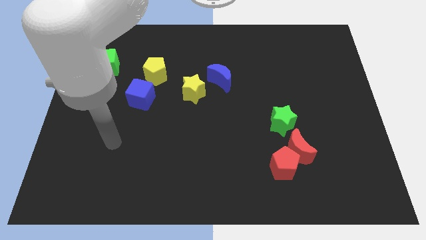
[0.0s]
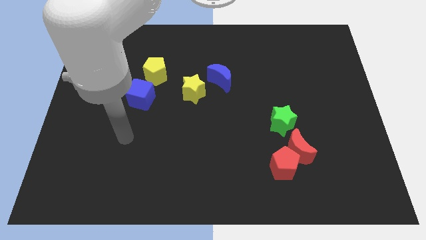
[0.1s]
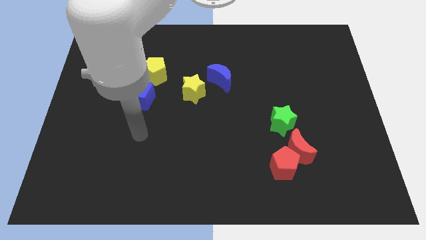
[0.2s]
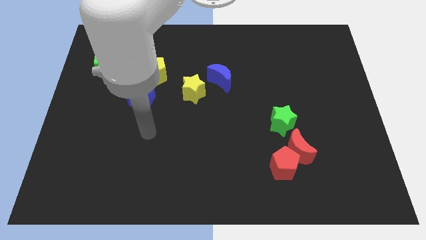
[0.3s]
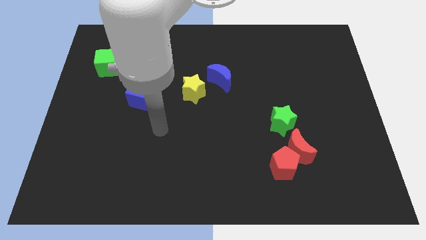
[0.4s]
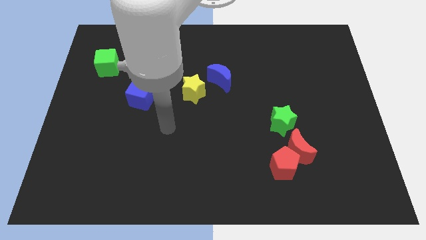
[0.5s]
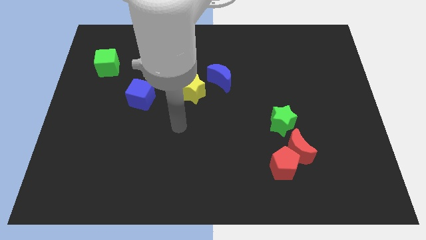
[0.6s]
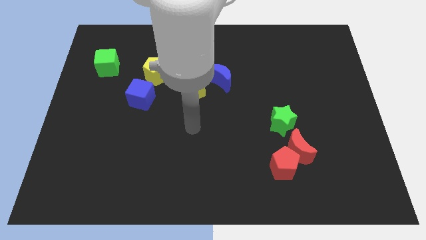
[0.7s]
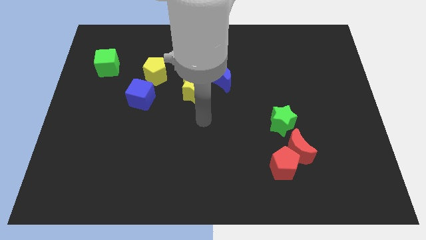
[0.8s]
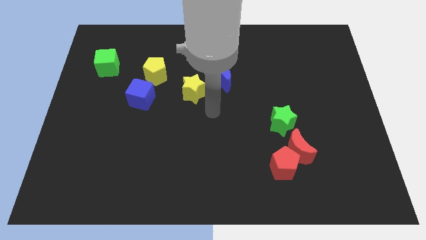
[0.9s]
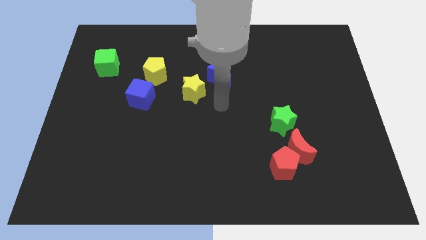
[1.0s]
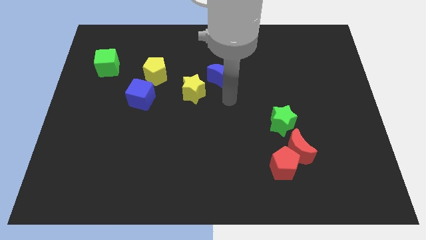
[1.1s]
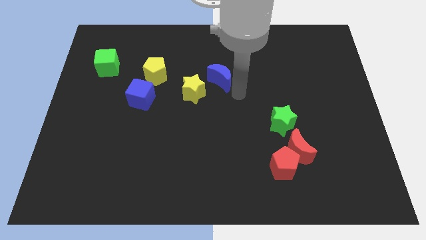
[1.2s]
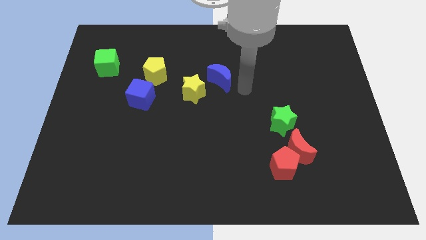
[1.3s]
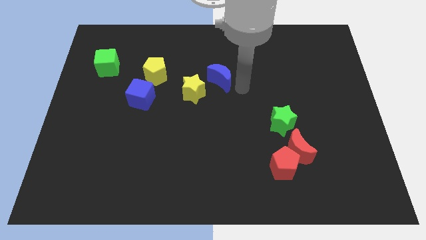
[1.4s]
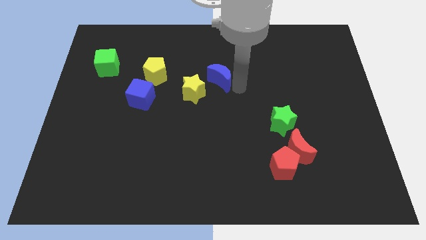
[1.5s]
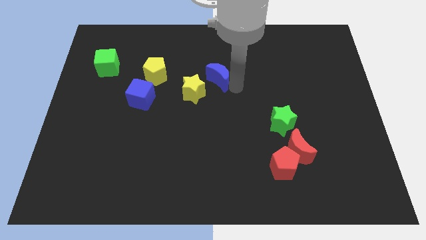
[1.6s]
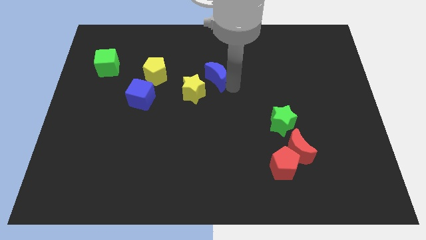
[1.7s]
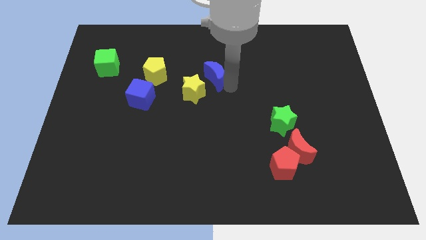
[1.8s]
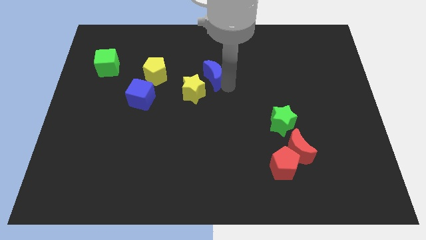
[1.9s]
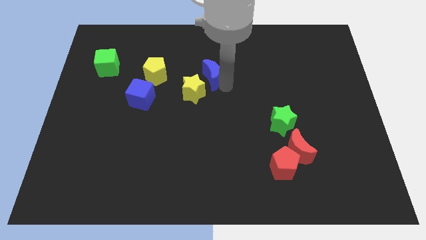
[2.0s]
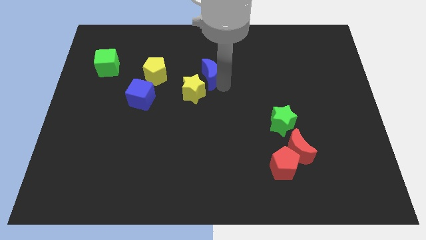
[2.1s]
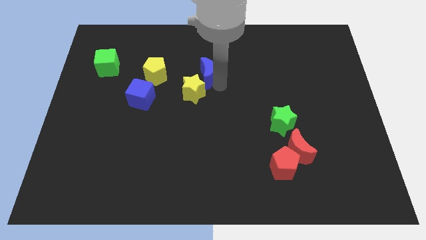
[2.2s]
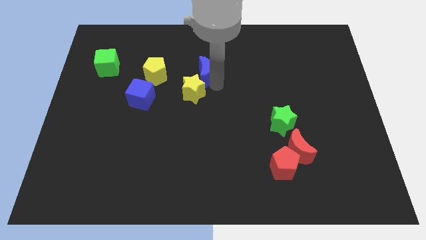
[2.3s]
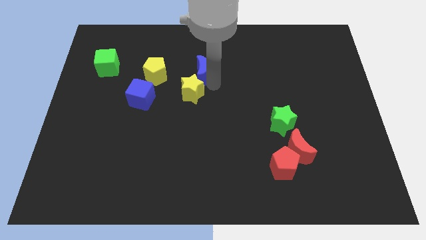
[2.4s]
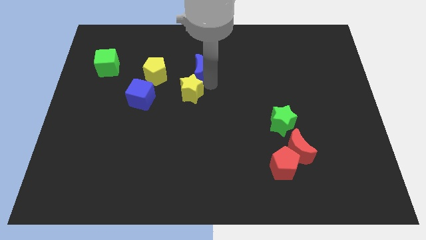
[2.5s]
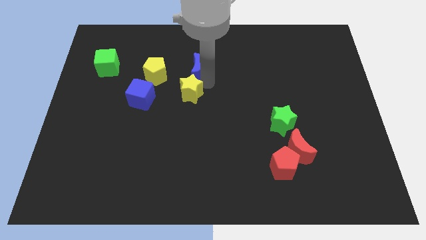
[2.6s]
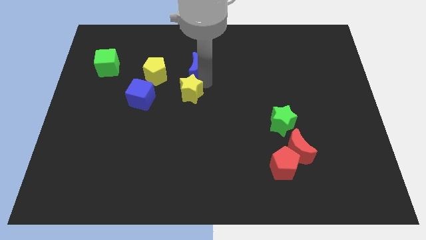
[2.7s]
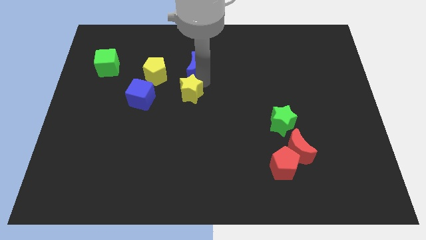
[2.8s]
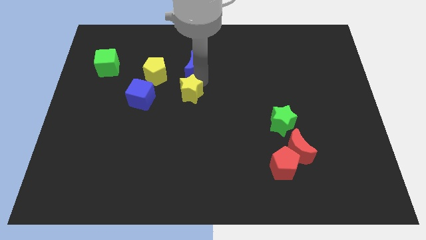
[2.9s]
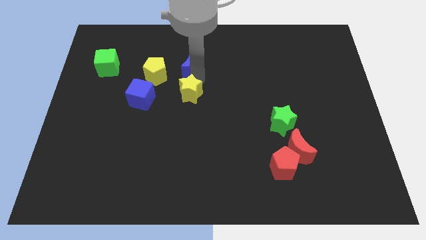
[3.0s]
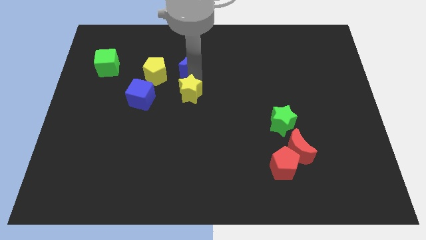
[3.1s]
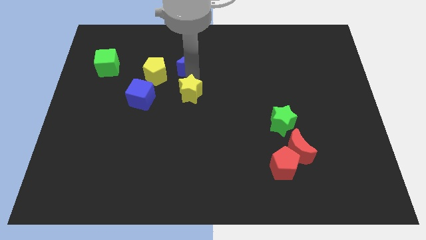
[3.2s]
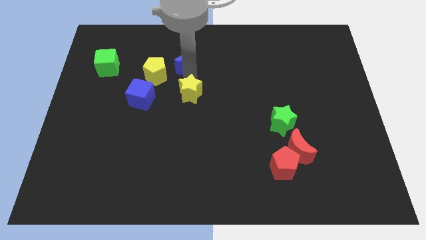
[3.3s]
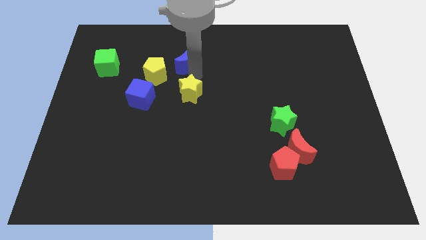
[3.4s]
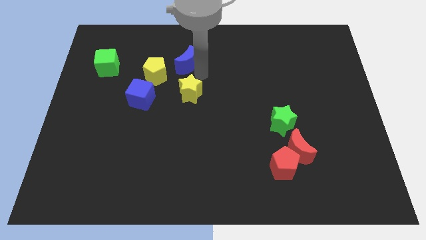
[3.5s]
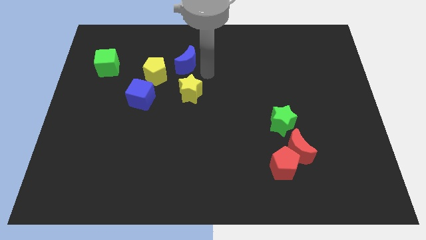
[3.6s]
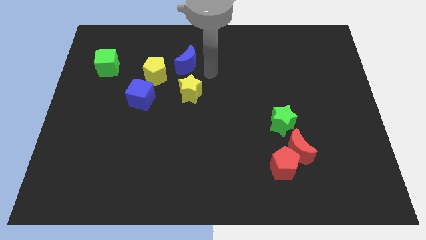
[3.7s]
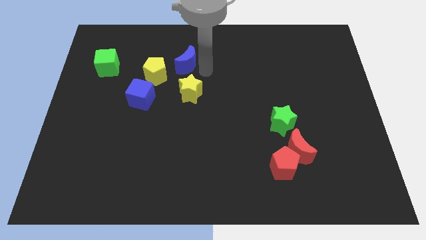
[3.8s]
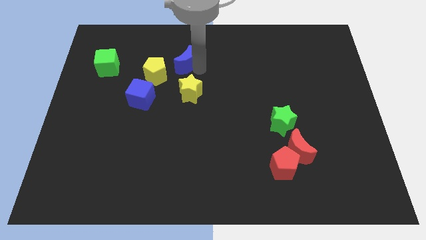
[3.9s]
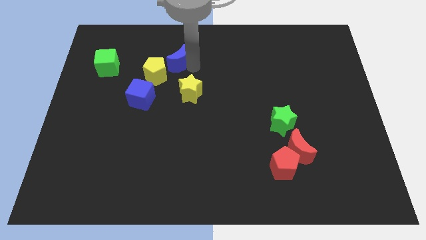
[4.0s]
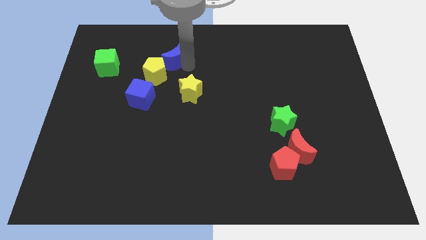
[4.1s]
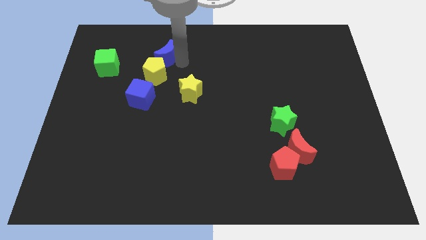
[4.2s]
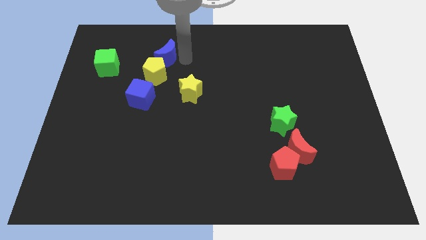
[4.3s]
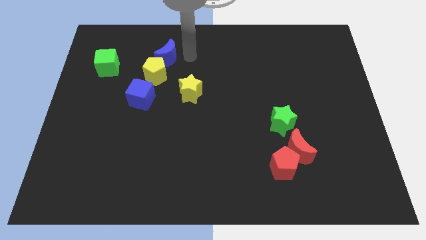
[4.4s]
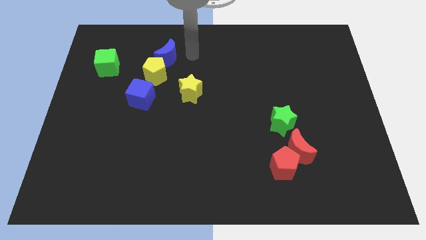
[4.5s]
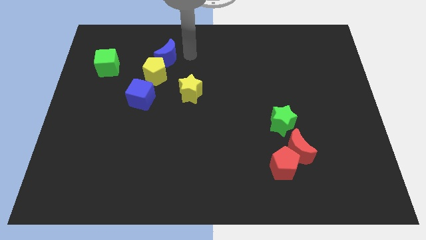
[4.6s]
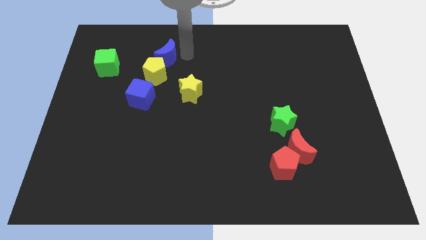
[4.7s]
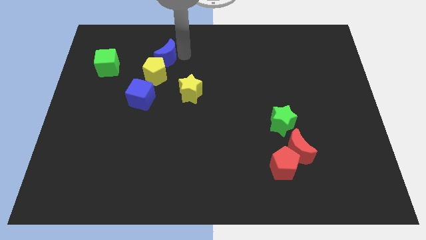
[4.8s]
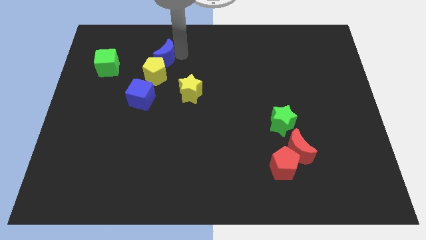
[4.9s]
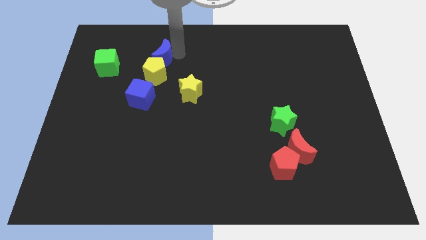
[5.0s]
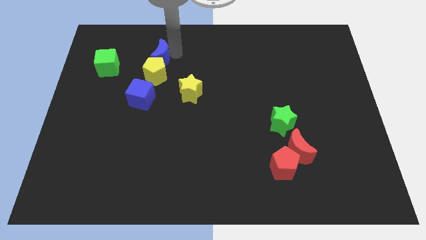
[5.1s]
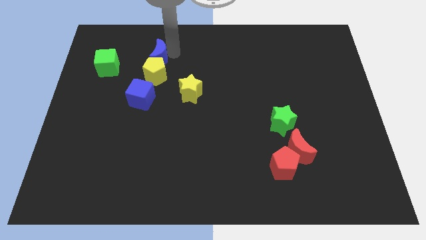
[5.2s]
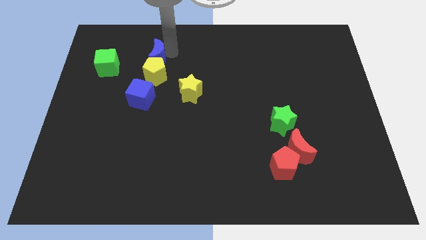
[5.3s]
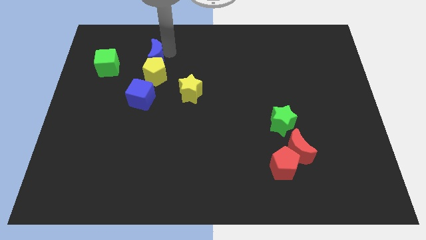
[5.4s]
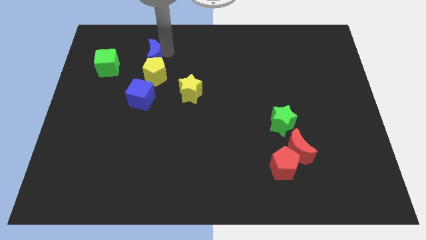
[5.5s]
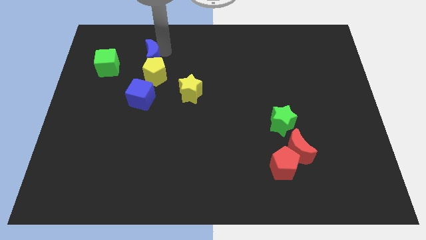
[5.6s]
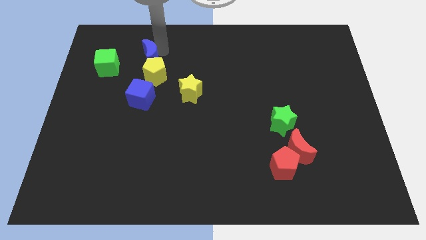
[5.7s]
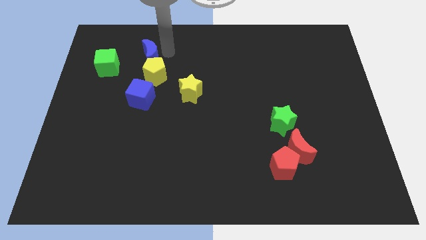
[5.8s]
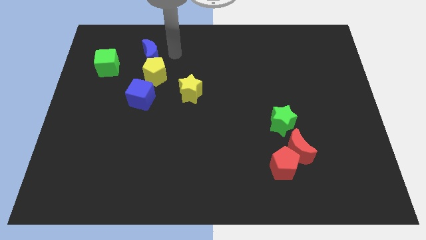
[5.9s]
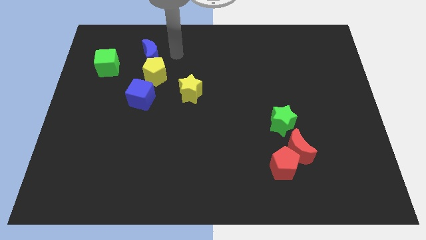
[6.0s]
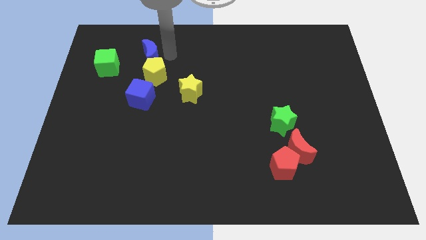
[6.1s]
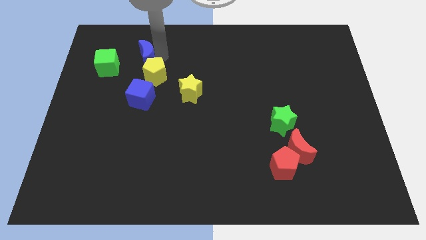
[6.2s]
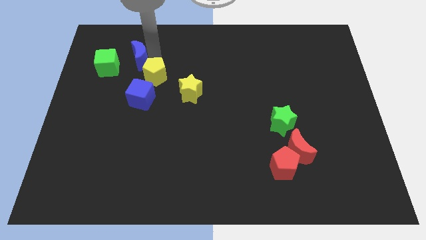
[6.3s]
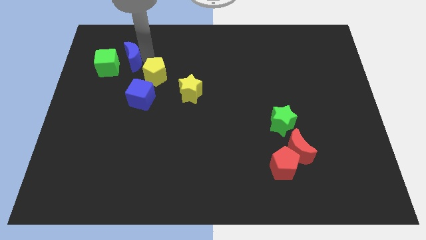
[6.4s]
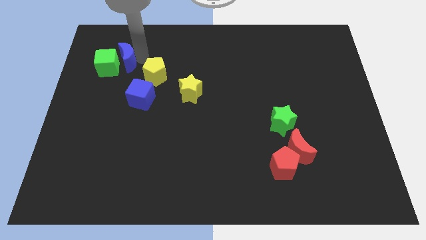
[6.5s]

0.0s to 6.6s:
move the blue moon towards the green cube

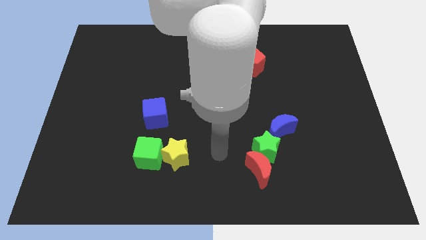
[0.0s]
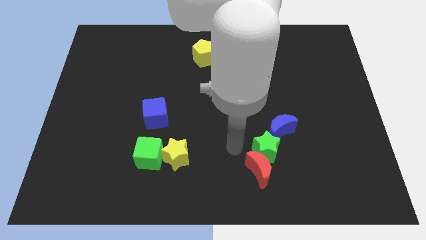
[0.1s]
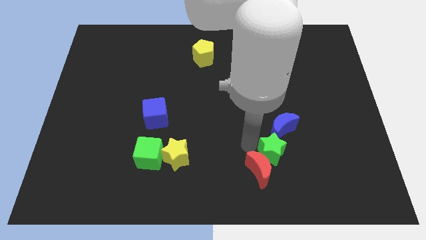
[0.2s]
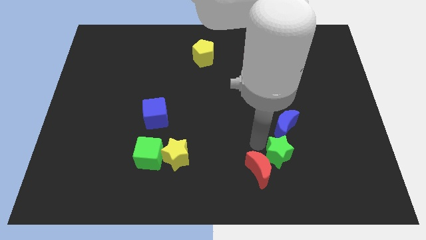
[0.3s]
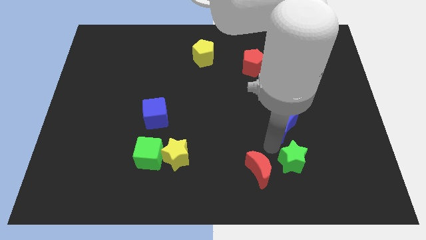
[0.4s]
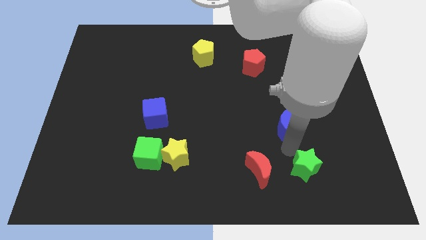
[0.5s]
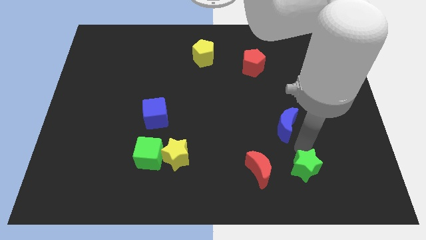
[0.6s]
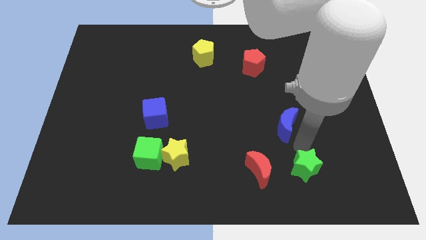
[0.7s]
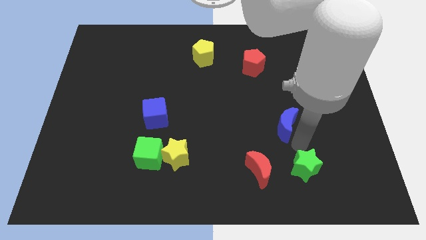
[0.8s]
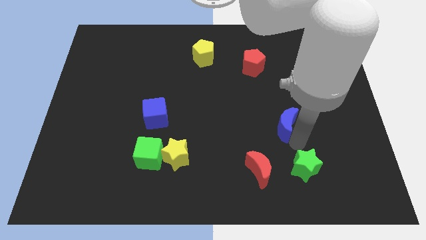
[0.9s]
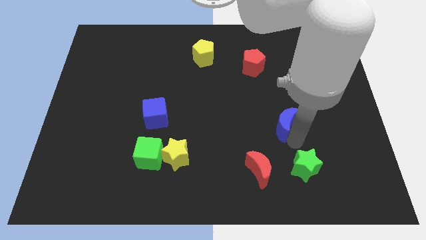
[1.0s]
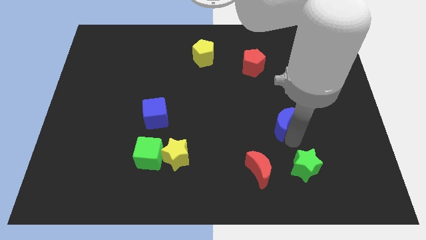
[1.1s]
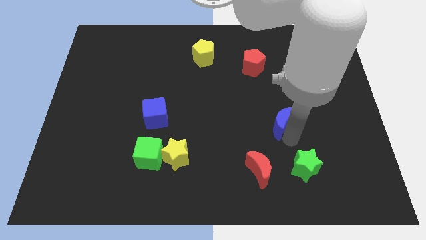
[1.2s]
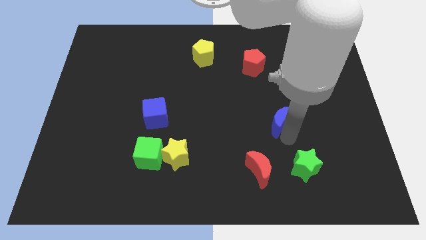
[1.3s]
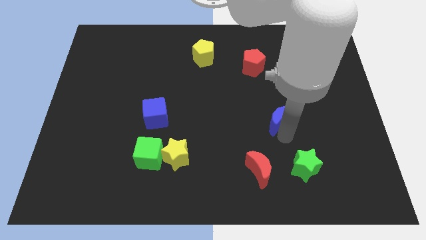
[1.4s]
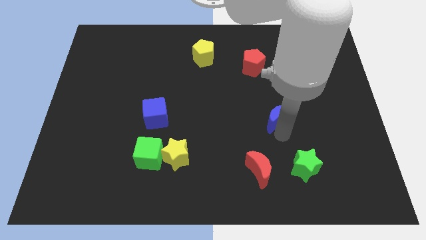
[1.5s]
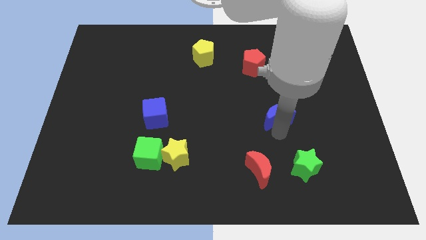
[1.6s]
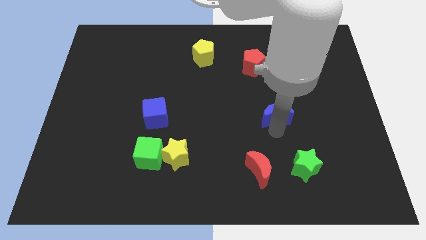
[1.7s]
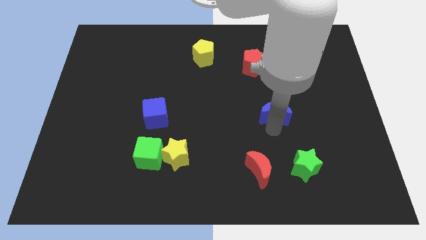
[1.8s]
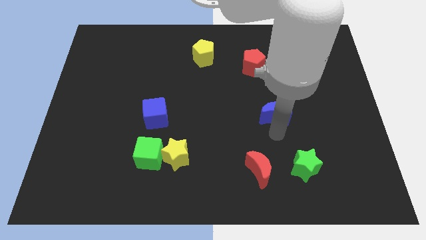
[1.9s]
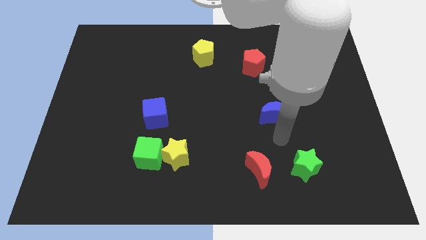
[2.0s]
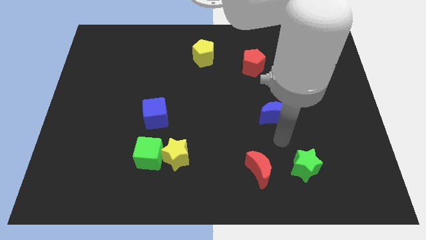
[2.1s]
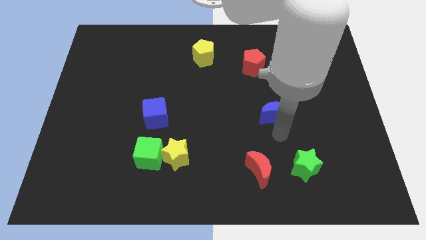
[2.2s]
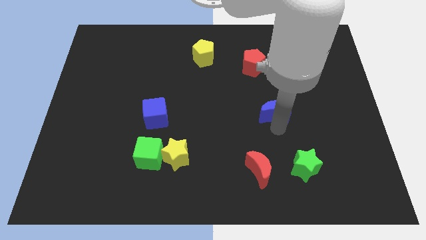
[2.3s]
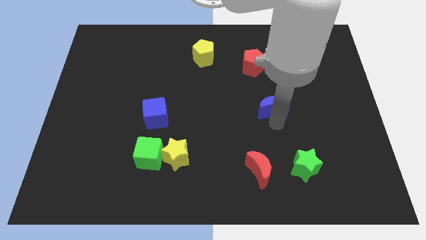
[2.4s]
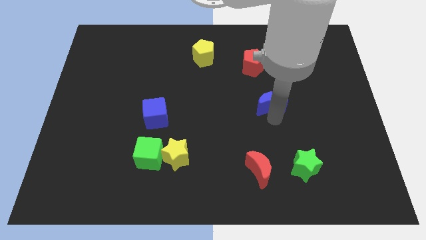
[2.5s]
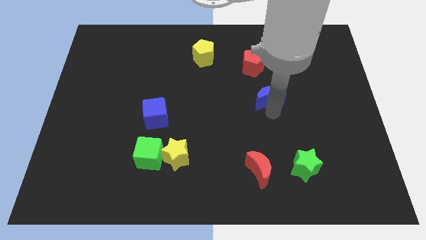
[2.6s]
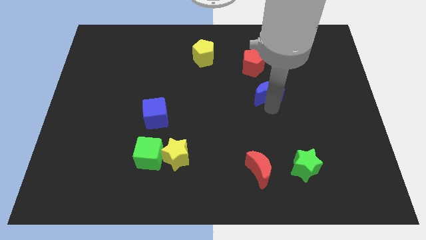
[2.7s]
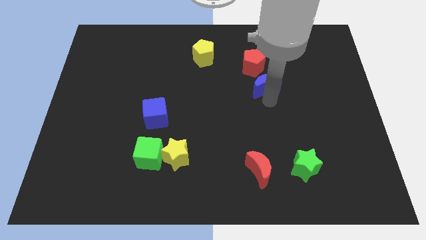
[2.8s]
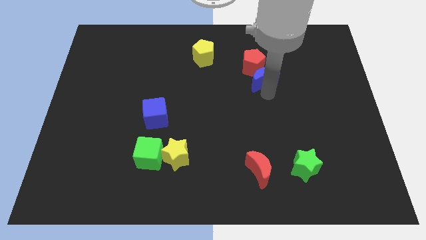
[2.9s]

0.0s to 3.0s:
slide the blue moon towards the red pentagon
